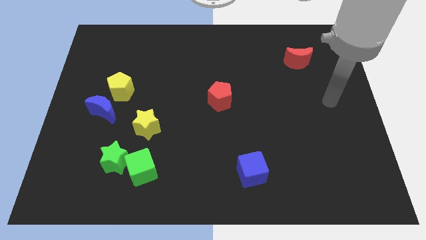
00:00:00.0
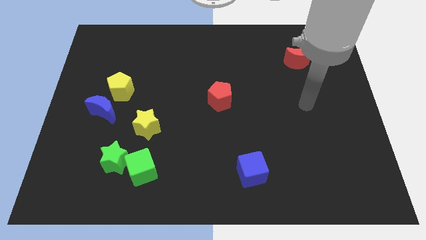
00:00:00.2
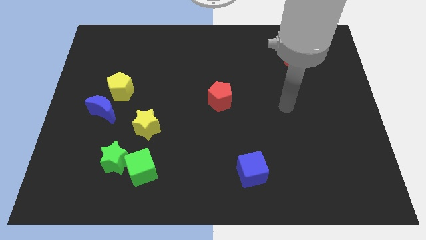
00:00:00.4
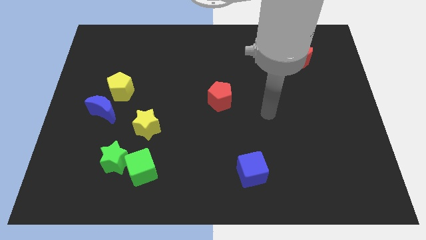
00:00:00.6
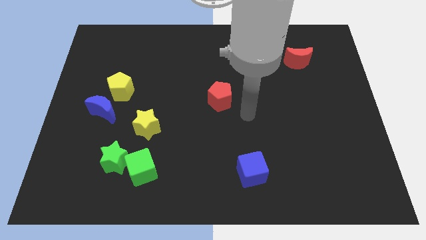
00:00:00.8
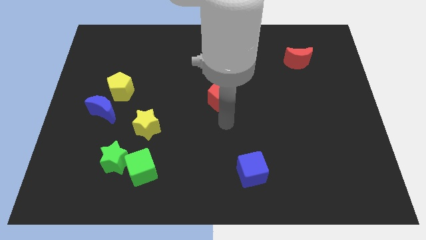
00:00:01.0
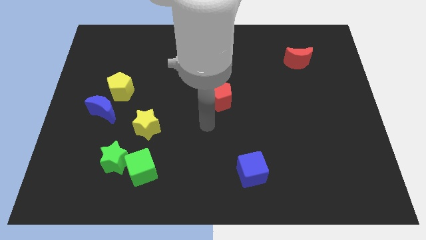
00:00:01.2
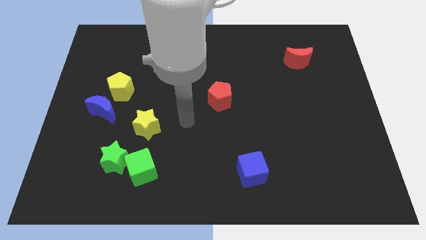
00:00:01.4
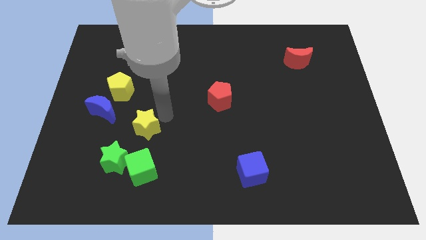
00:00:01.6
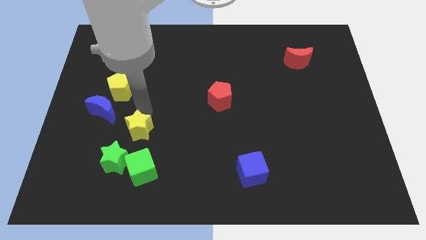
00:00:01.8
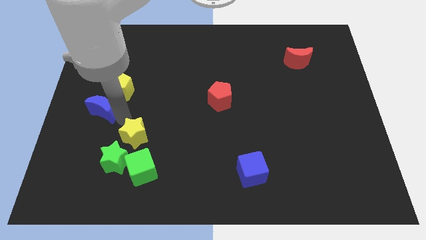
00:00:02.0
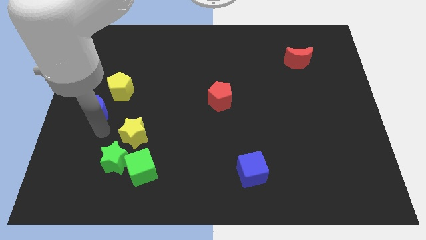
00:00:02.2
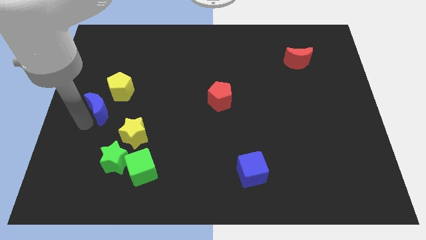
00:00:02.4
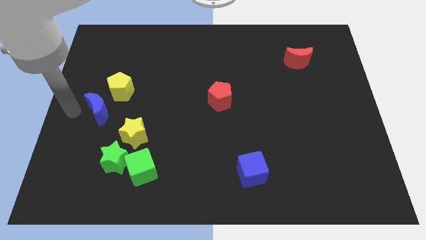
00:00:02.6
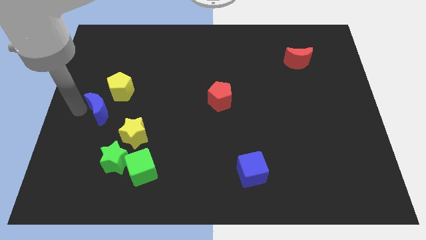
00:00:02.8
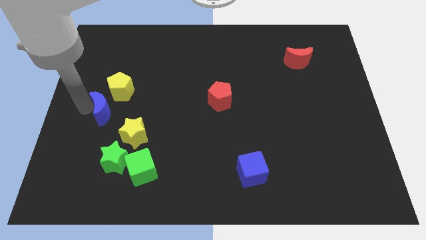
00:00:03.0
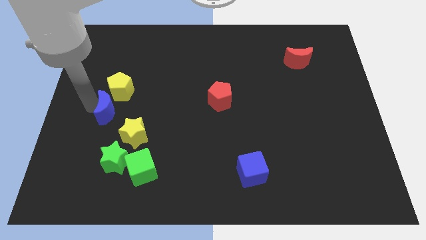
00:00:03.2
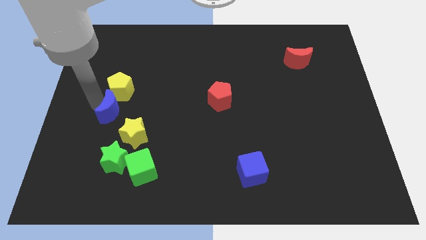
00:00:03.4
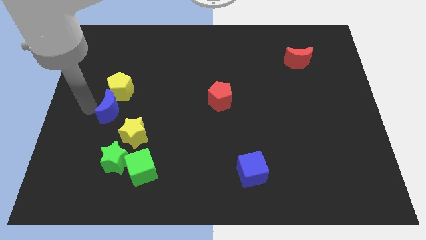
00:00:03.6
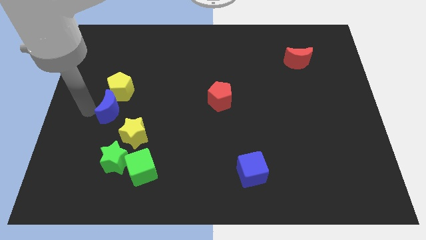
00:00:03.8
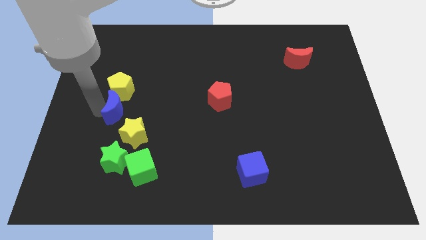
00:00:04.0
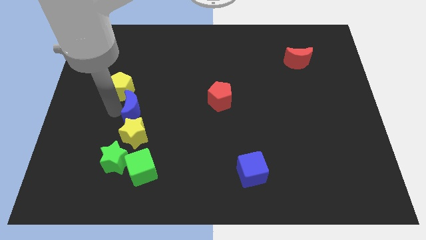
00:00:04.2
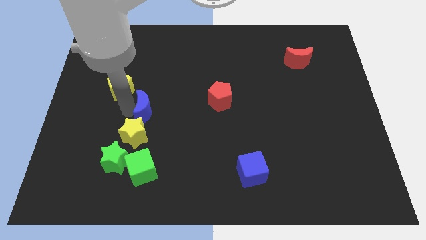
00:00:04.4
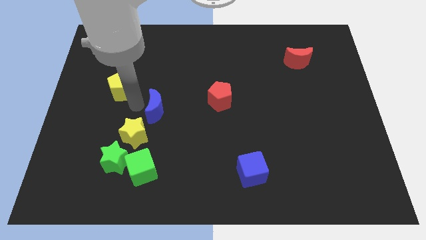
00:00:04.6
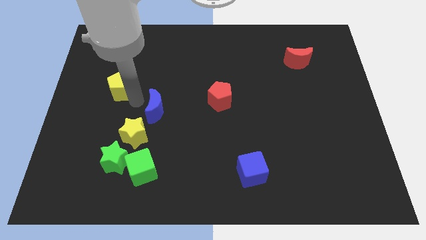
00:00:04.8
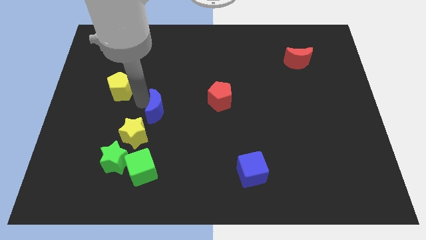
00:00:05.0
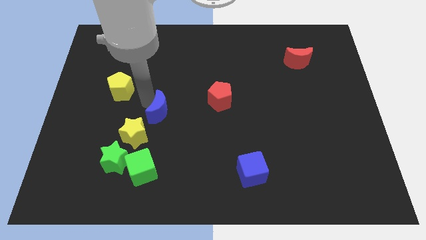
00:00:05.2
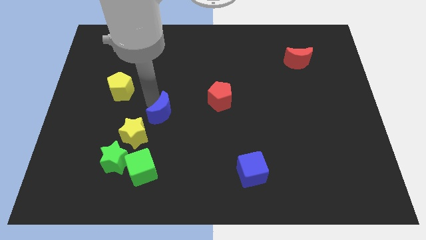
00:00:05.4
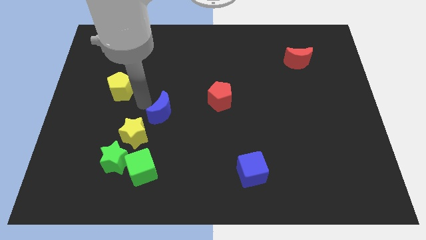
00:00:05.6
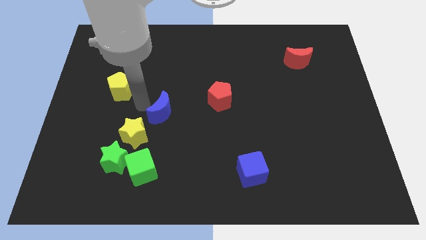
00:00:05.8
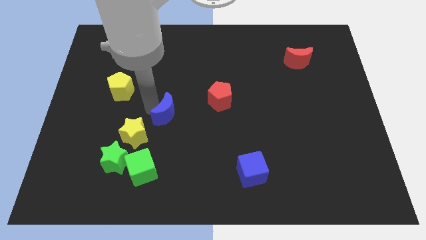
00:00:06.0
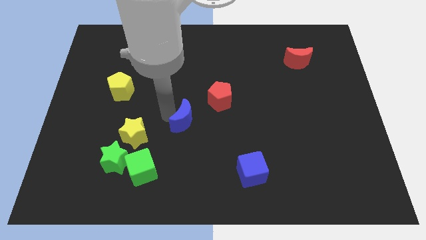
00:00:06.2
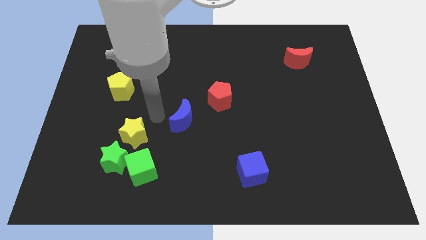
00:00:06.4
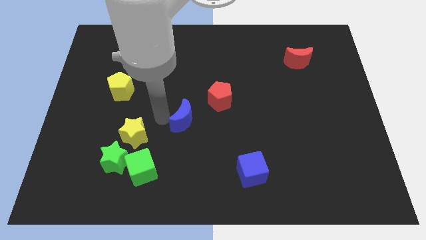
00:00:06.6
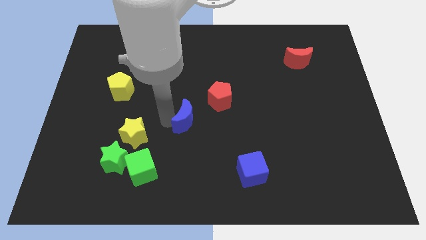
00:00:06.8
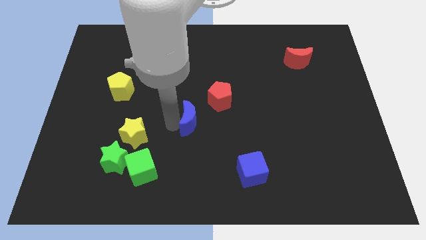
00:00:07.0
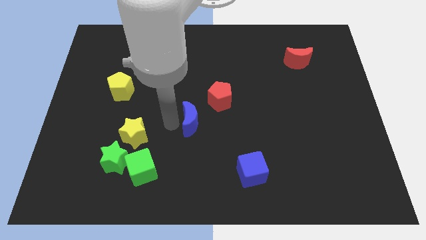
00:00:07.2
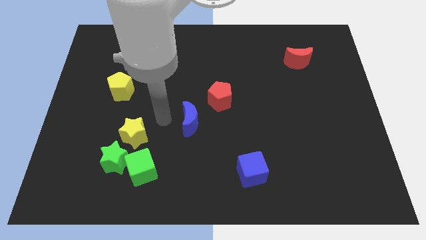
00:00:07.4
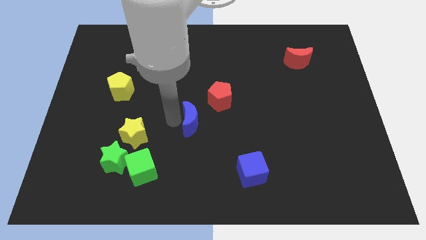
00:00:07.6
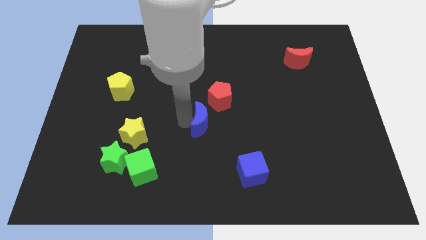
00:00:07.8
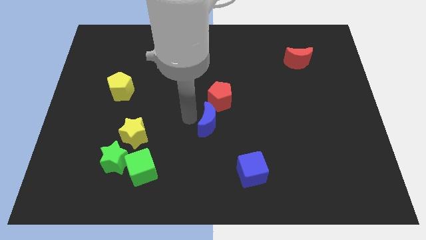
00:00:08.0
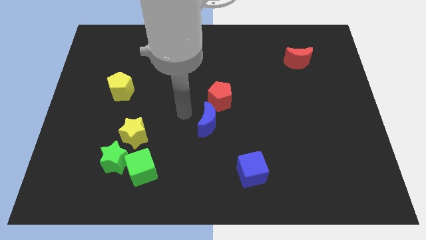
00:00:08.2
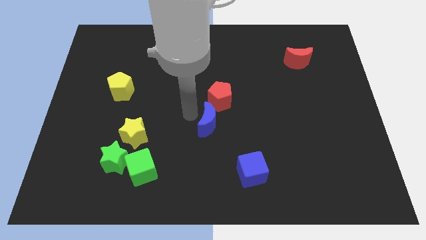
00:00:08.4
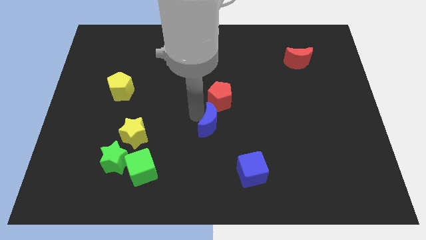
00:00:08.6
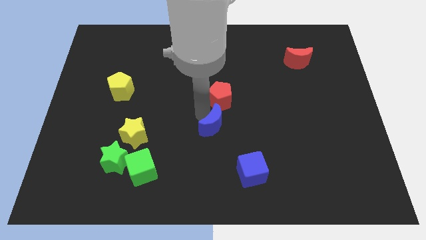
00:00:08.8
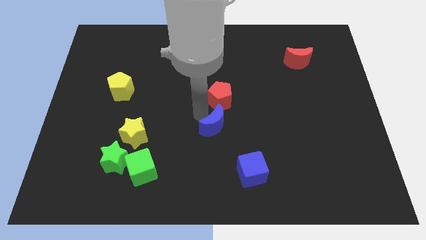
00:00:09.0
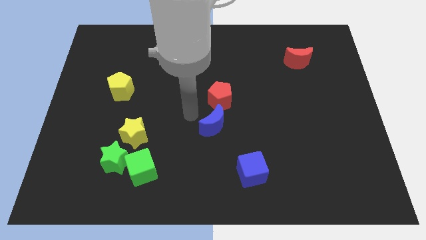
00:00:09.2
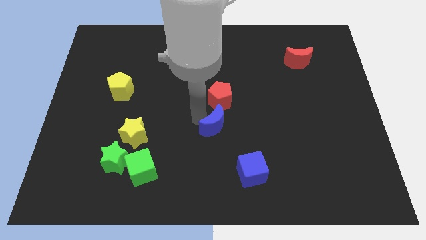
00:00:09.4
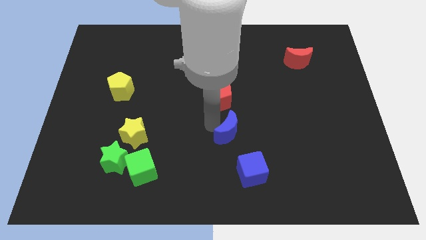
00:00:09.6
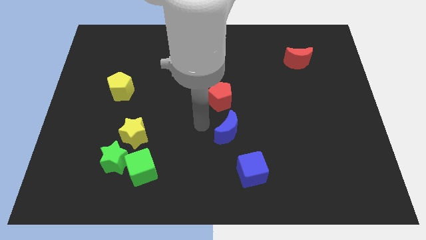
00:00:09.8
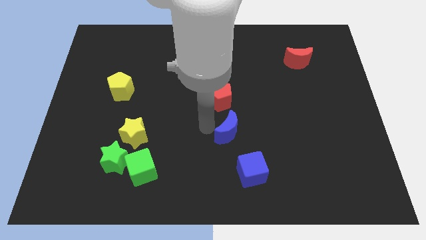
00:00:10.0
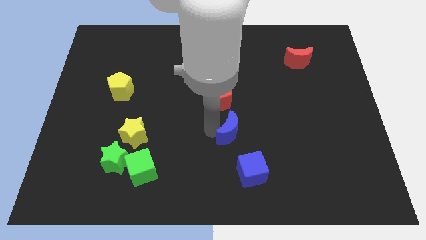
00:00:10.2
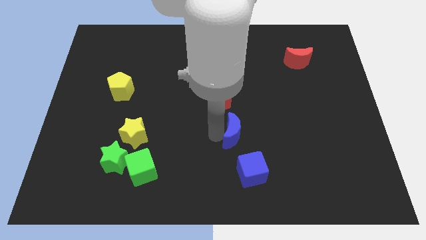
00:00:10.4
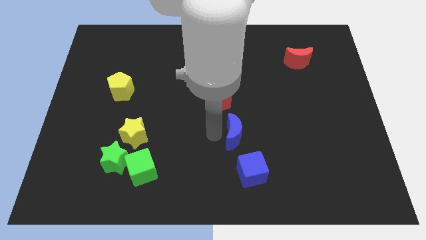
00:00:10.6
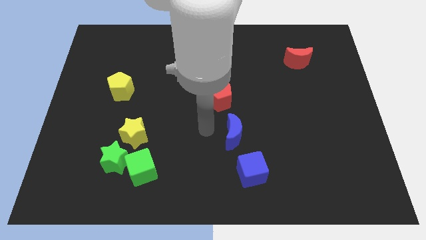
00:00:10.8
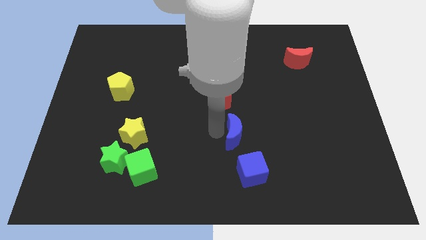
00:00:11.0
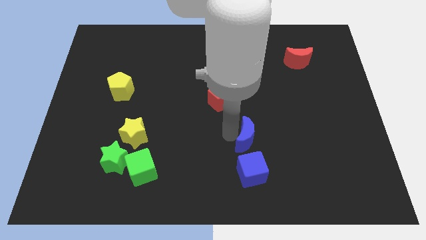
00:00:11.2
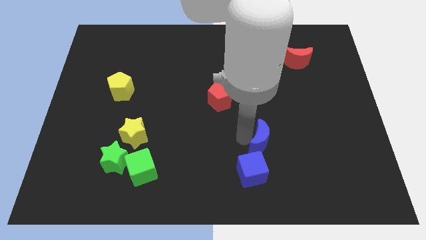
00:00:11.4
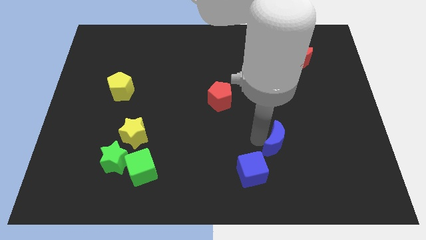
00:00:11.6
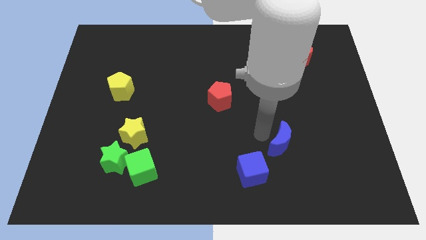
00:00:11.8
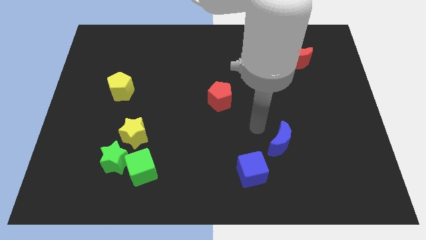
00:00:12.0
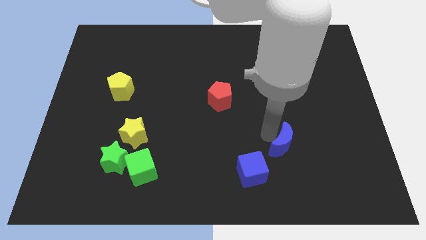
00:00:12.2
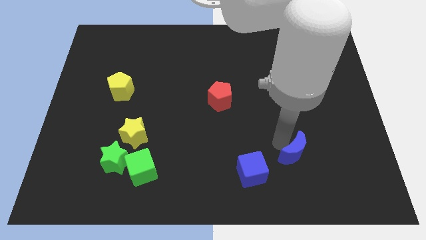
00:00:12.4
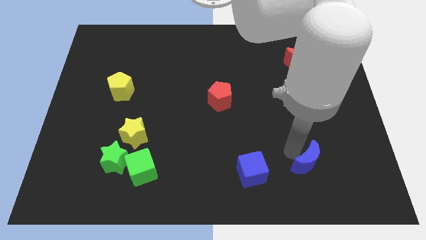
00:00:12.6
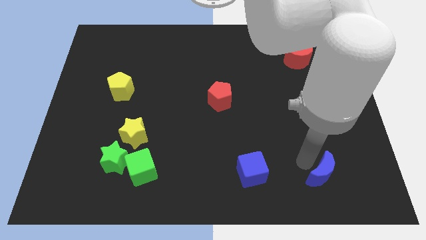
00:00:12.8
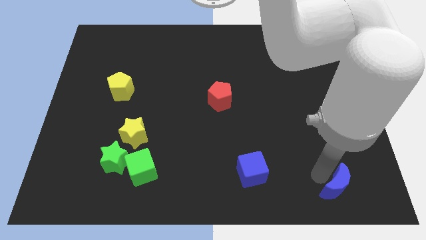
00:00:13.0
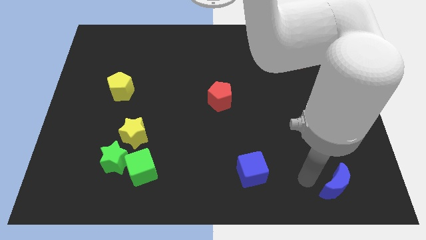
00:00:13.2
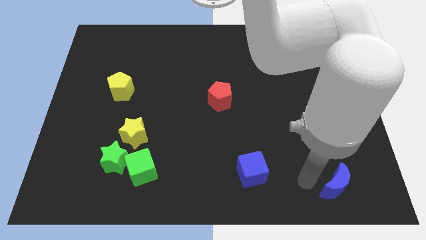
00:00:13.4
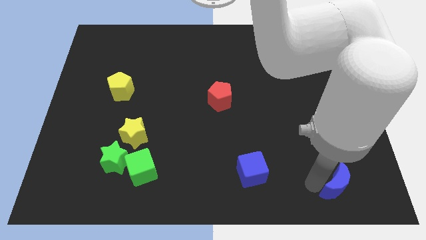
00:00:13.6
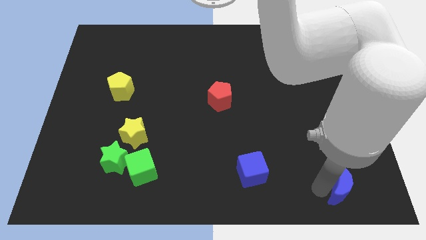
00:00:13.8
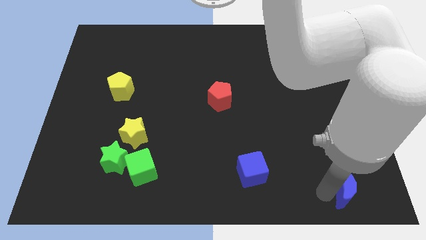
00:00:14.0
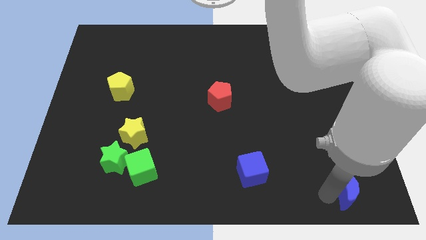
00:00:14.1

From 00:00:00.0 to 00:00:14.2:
put the blue moon to the bottom right of the board
